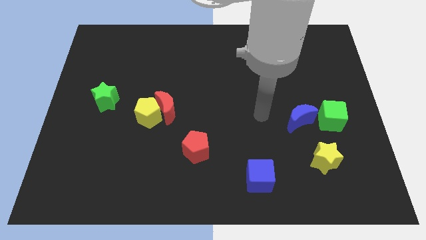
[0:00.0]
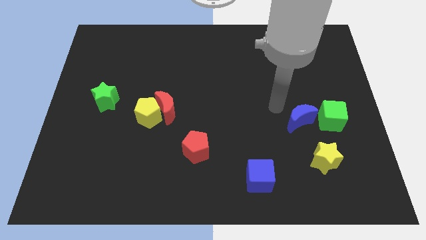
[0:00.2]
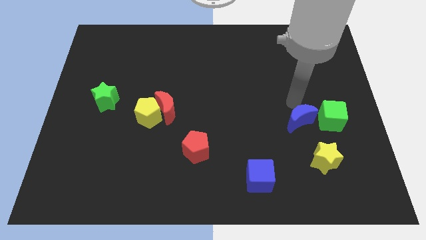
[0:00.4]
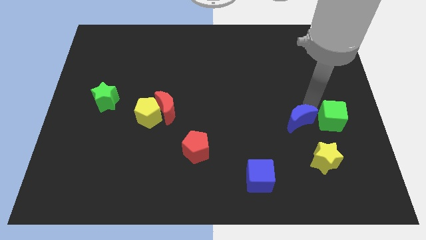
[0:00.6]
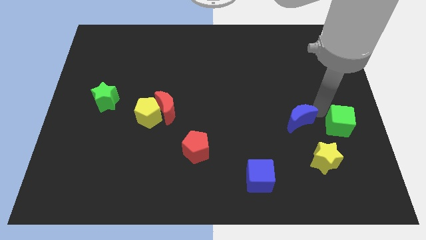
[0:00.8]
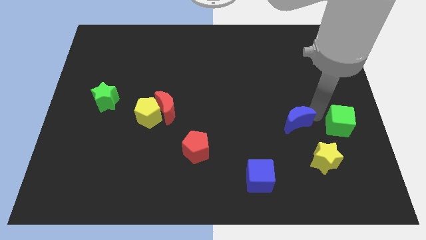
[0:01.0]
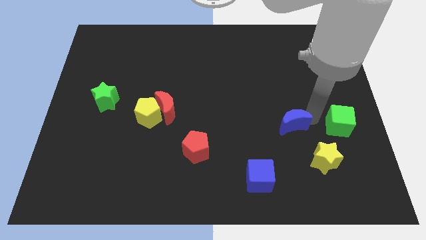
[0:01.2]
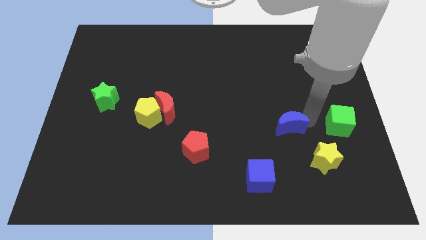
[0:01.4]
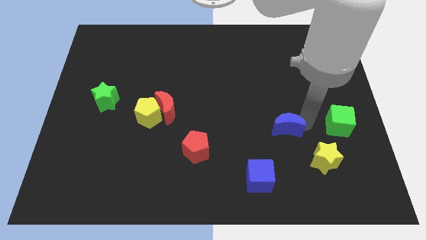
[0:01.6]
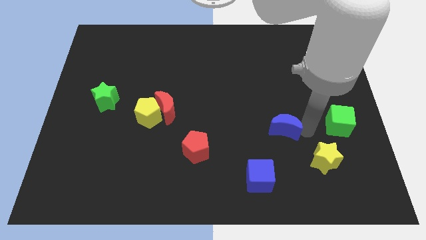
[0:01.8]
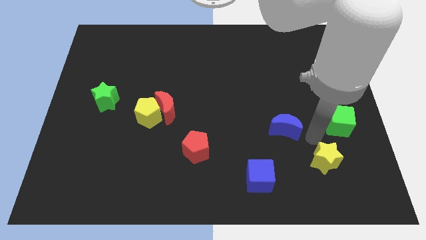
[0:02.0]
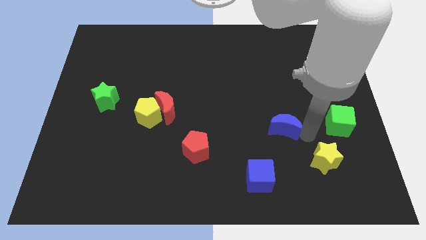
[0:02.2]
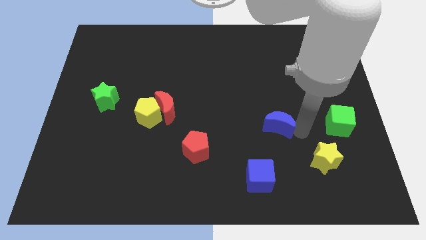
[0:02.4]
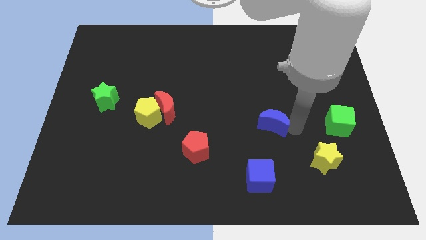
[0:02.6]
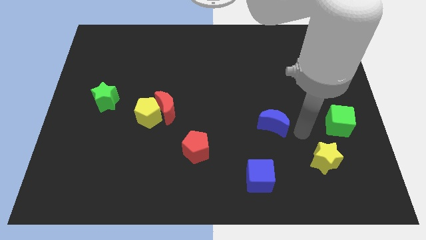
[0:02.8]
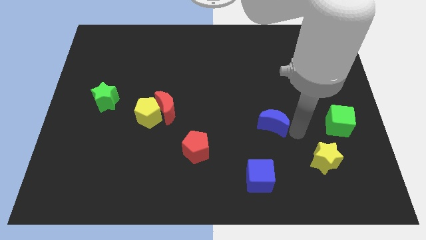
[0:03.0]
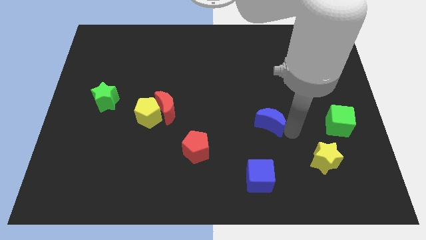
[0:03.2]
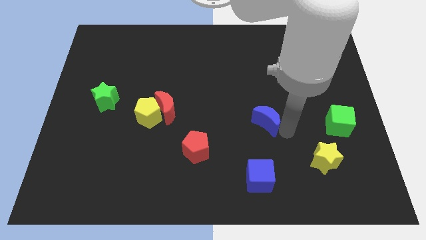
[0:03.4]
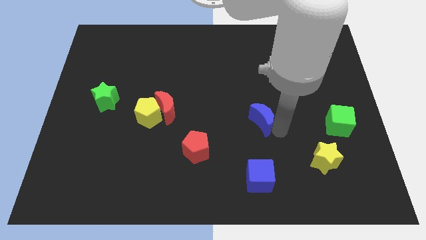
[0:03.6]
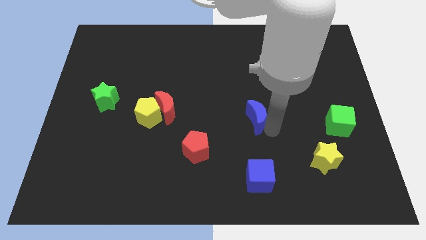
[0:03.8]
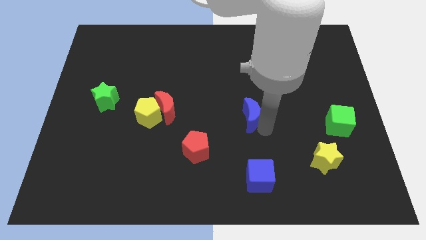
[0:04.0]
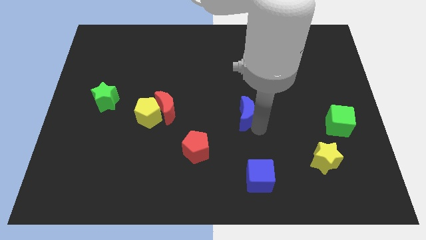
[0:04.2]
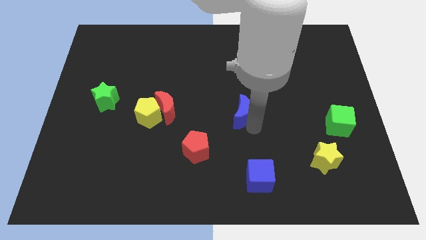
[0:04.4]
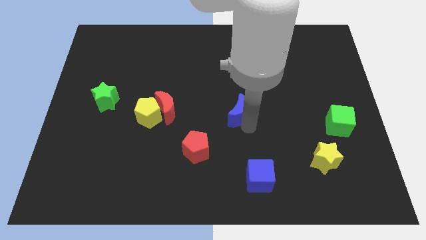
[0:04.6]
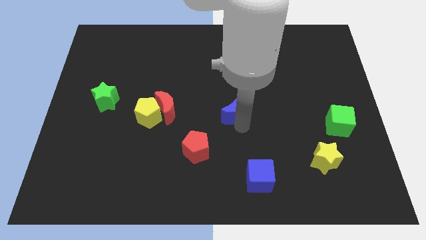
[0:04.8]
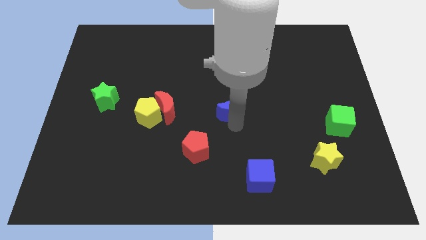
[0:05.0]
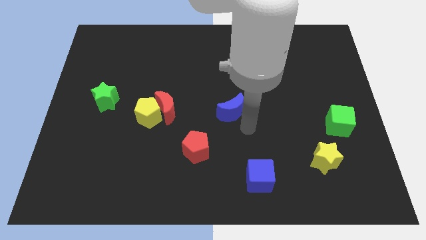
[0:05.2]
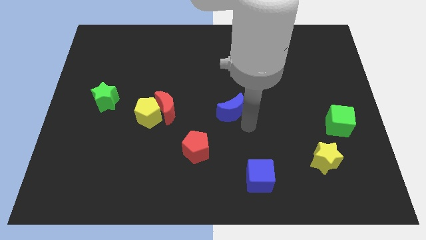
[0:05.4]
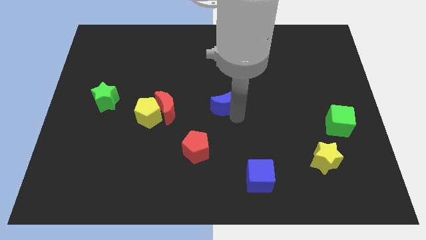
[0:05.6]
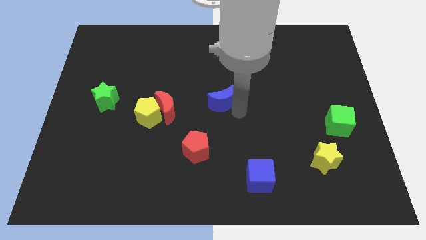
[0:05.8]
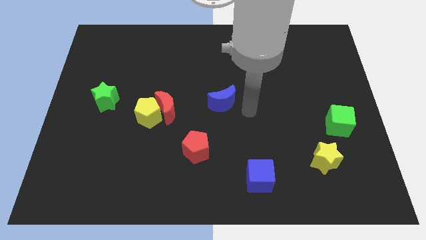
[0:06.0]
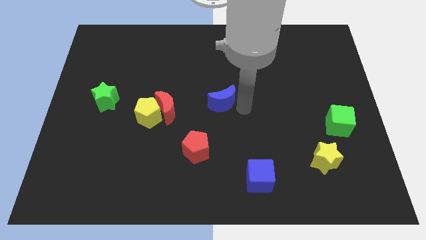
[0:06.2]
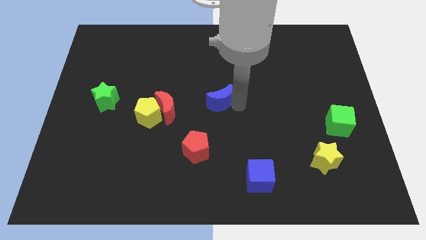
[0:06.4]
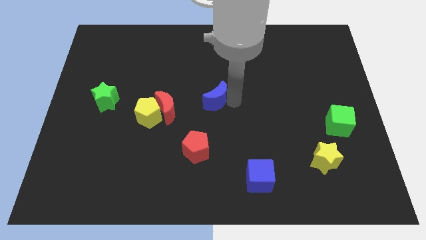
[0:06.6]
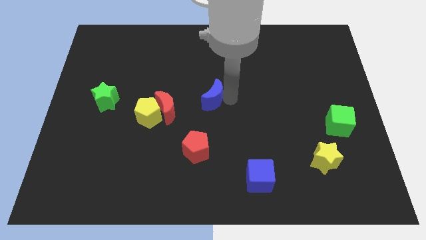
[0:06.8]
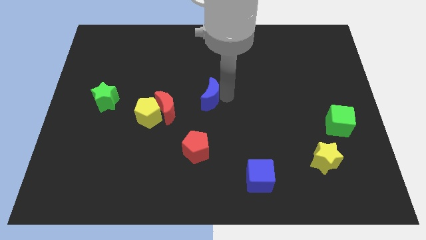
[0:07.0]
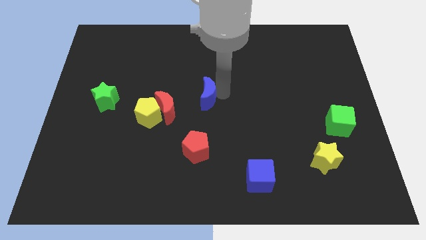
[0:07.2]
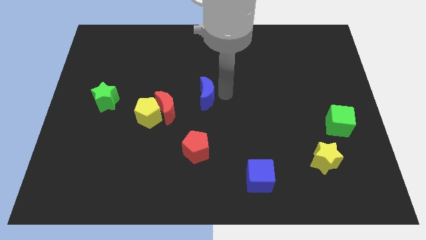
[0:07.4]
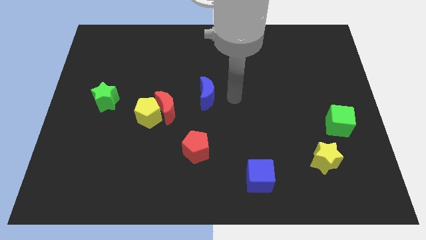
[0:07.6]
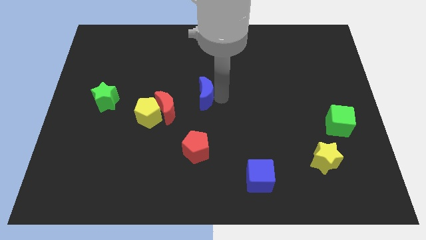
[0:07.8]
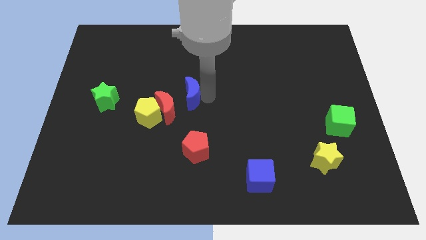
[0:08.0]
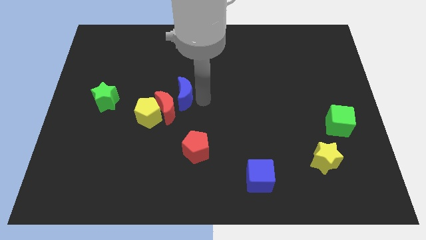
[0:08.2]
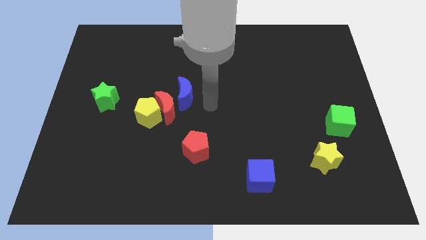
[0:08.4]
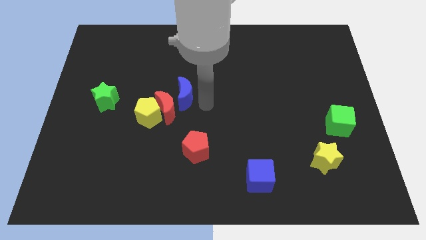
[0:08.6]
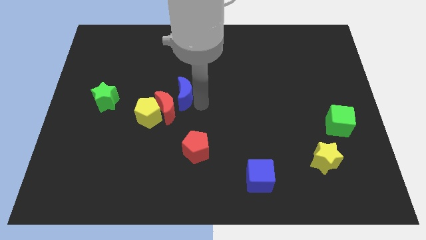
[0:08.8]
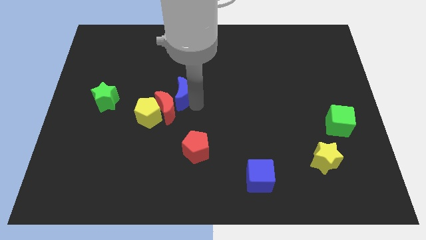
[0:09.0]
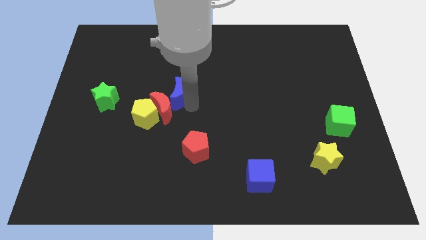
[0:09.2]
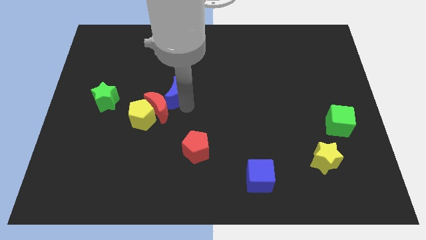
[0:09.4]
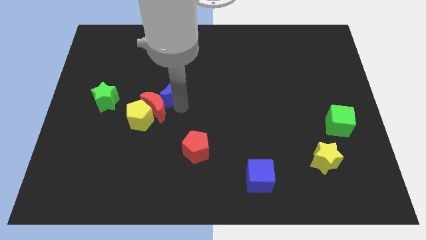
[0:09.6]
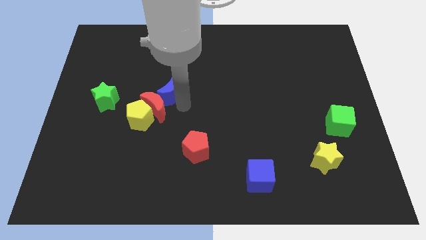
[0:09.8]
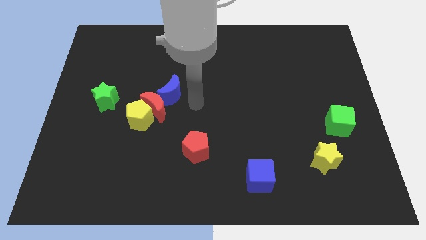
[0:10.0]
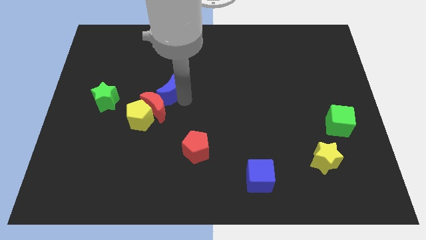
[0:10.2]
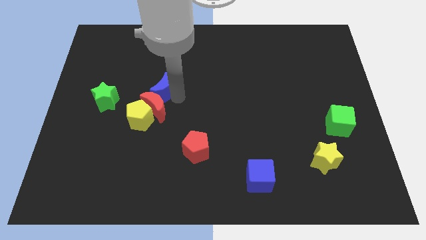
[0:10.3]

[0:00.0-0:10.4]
push the blue moon to the top of the yellow pentagon

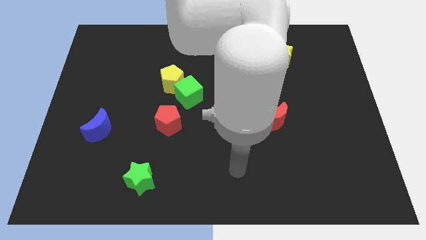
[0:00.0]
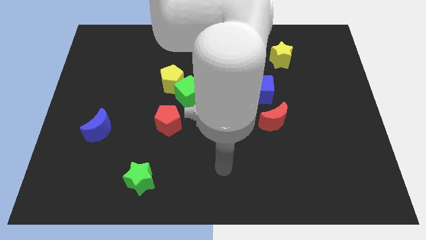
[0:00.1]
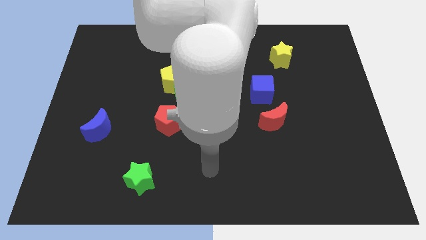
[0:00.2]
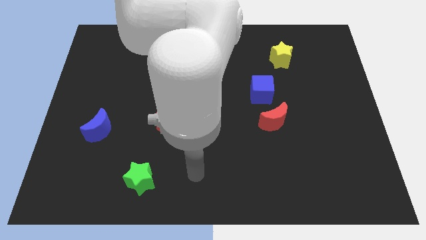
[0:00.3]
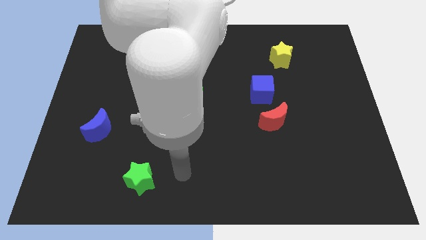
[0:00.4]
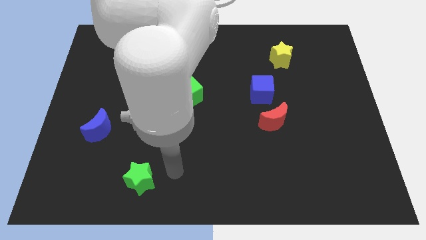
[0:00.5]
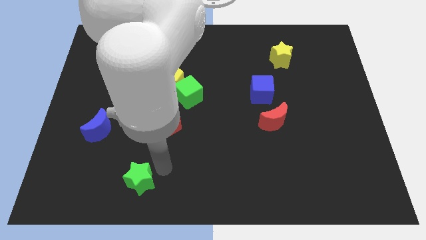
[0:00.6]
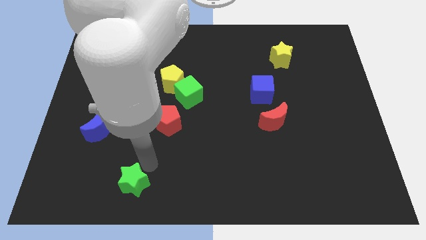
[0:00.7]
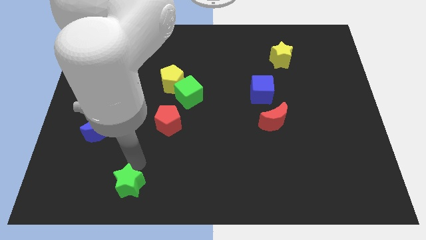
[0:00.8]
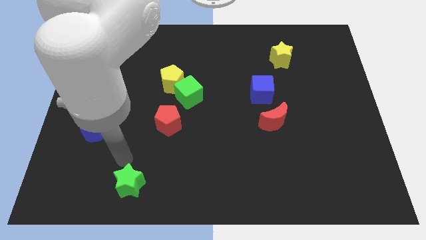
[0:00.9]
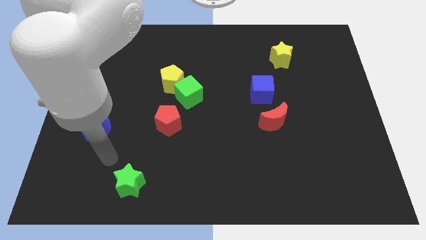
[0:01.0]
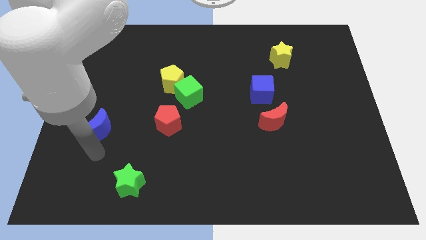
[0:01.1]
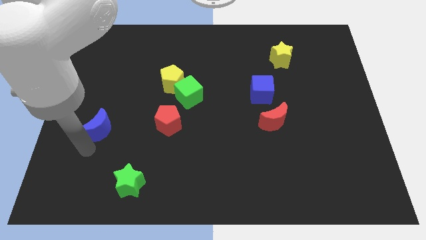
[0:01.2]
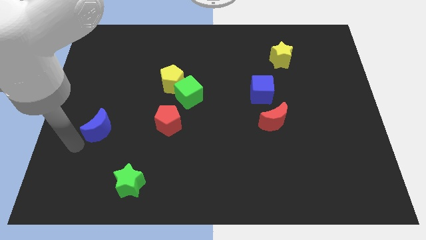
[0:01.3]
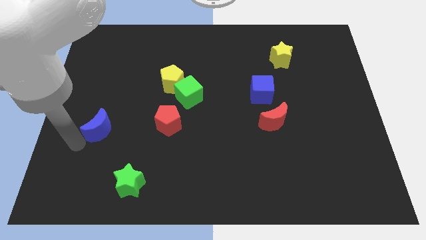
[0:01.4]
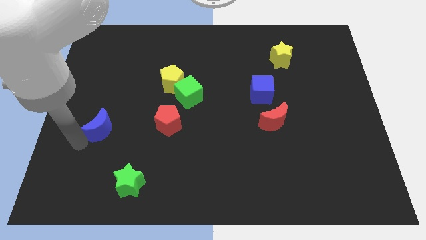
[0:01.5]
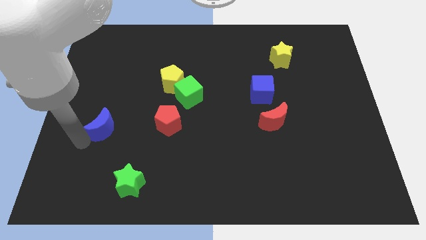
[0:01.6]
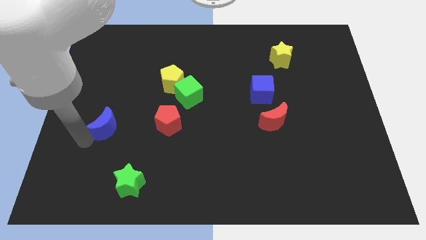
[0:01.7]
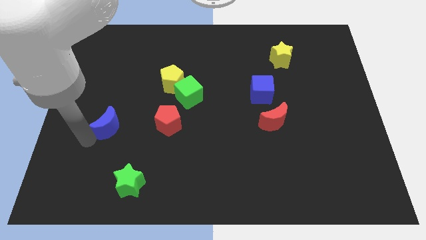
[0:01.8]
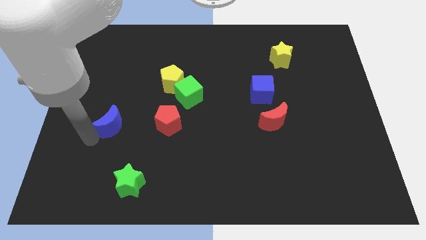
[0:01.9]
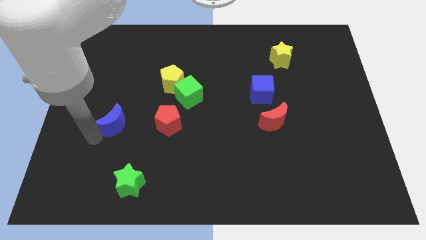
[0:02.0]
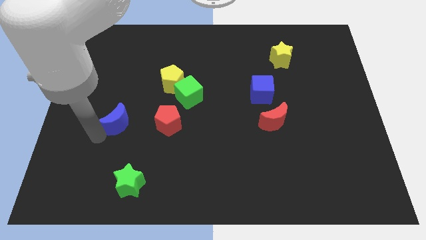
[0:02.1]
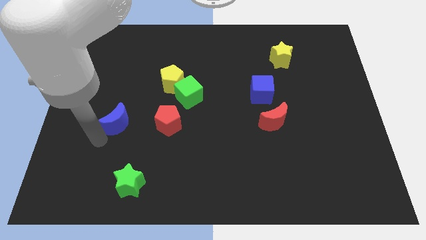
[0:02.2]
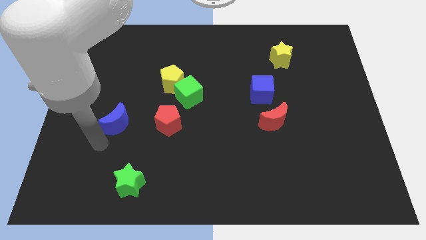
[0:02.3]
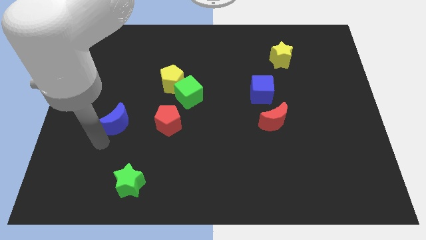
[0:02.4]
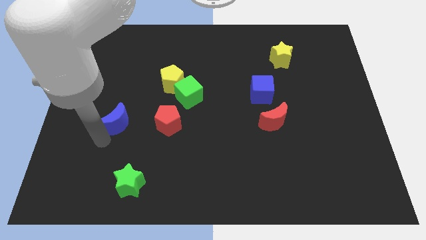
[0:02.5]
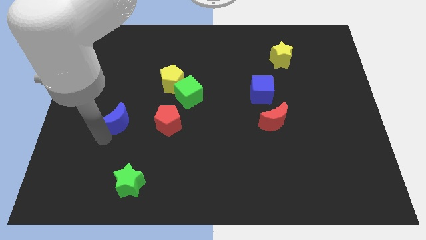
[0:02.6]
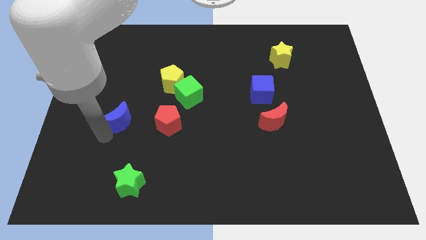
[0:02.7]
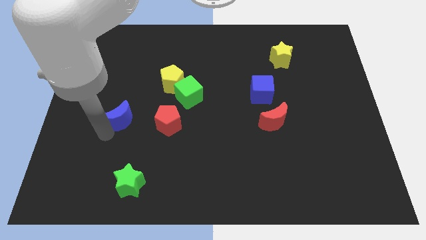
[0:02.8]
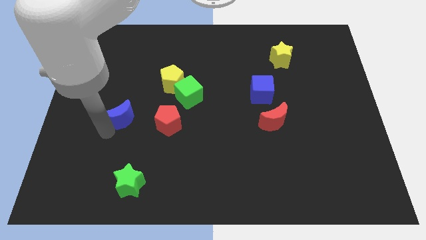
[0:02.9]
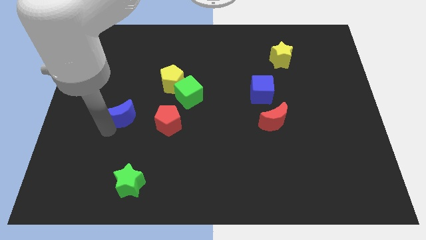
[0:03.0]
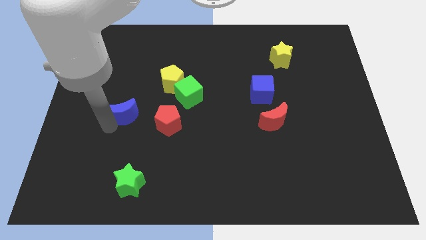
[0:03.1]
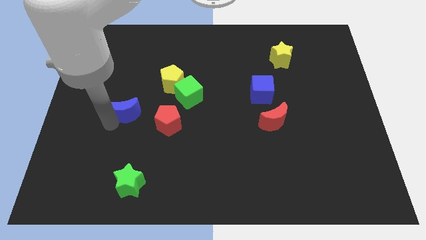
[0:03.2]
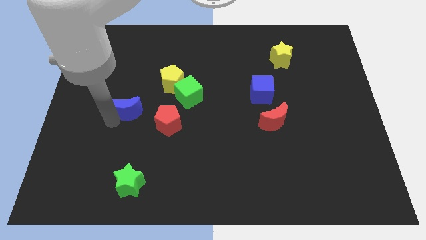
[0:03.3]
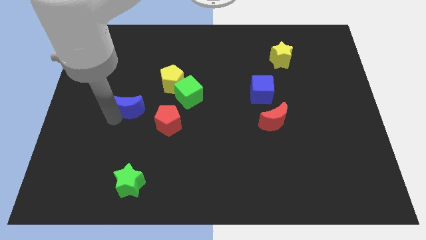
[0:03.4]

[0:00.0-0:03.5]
put the blue moon to the bottom left side of the yellow pentagon
